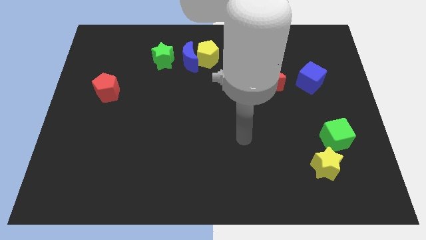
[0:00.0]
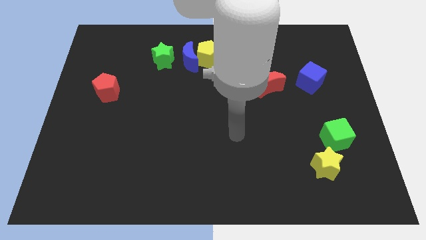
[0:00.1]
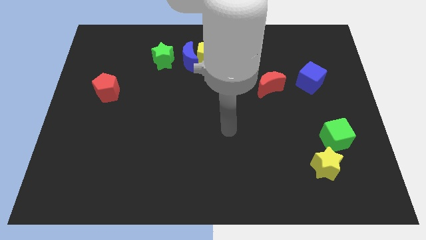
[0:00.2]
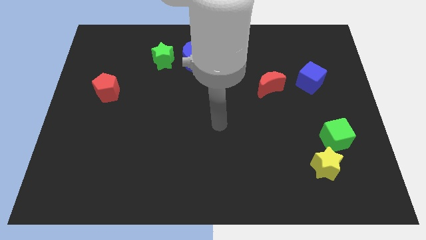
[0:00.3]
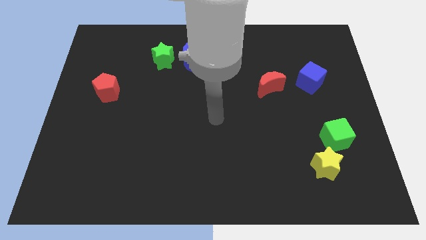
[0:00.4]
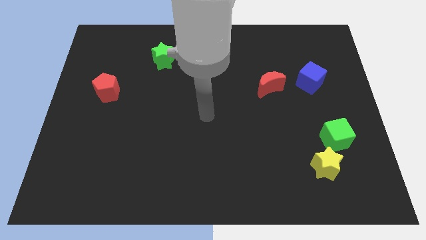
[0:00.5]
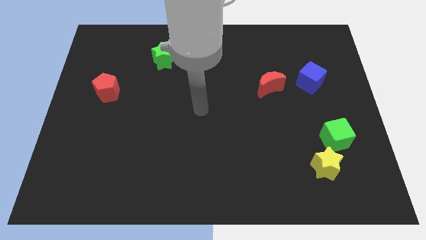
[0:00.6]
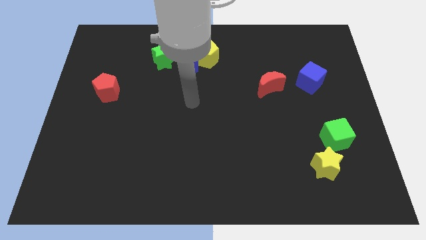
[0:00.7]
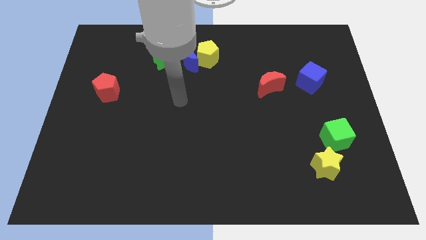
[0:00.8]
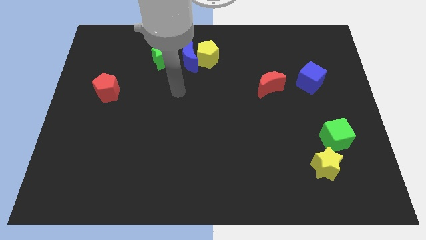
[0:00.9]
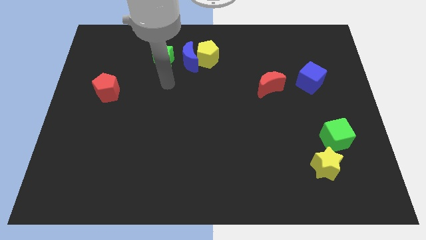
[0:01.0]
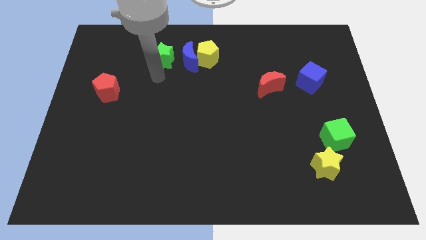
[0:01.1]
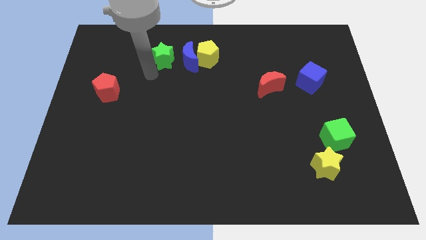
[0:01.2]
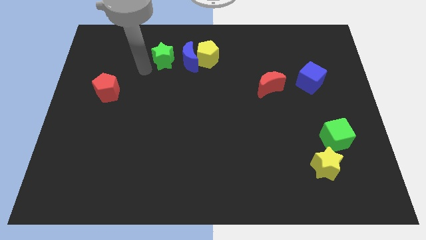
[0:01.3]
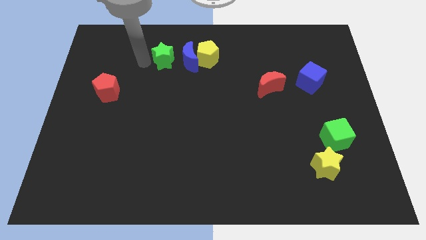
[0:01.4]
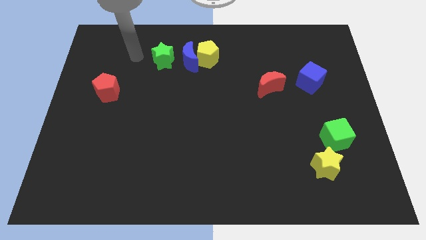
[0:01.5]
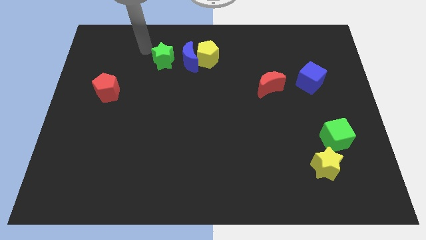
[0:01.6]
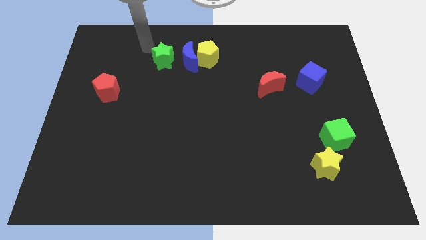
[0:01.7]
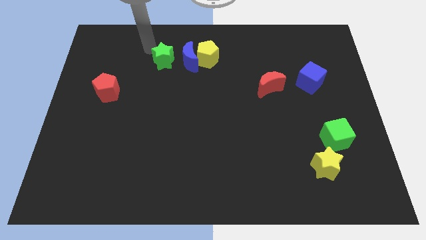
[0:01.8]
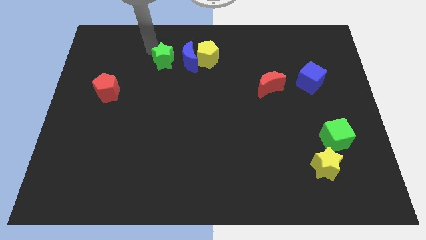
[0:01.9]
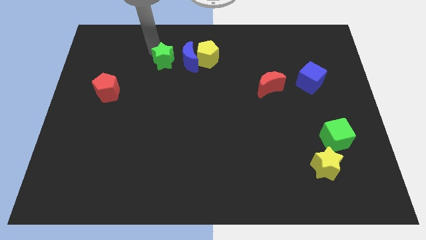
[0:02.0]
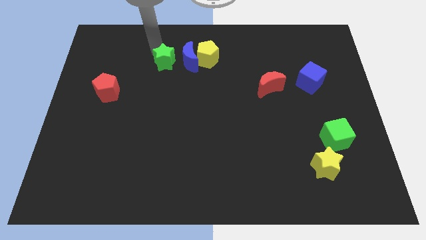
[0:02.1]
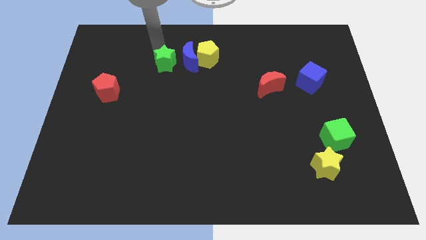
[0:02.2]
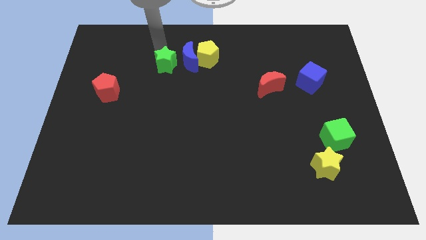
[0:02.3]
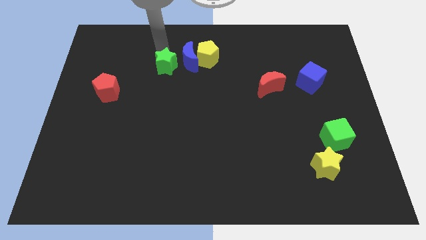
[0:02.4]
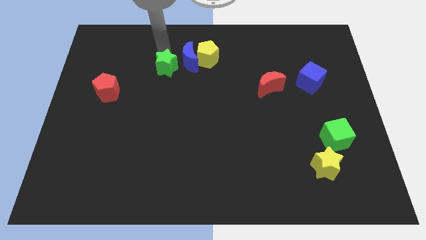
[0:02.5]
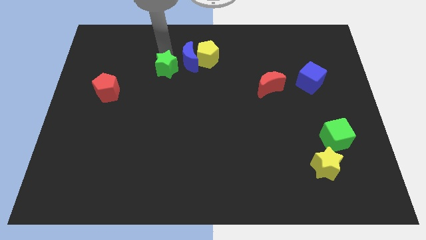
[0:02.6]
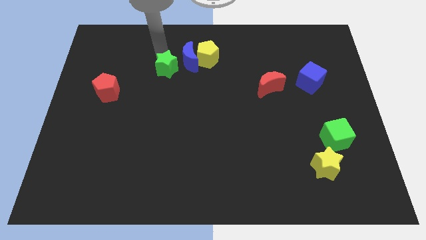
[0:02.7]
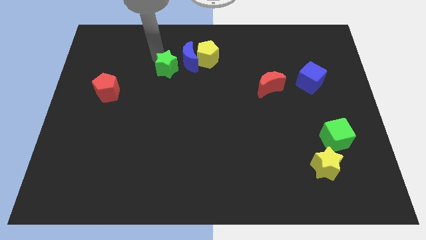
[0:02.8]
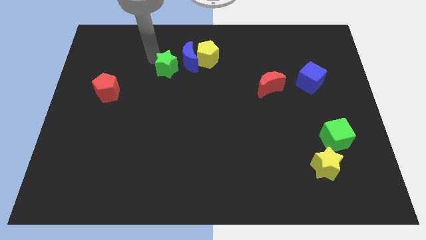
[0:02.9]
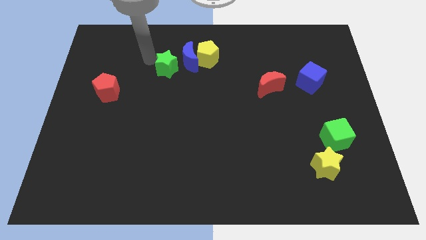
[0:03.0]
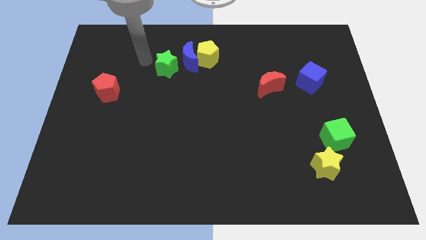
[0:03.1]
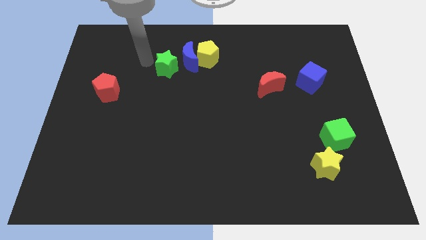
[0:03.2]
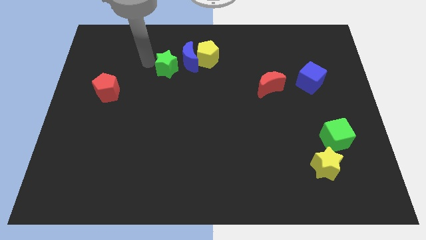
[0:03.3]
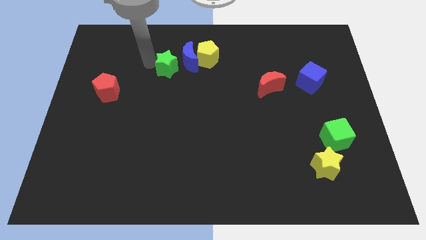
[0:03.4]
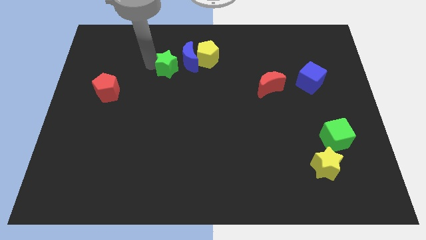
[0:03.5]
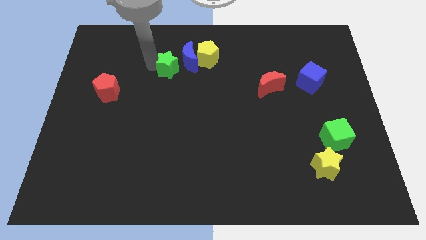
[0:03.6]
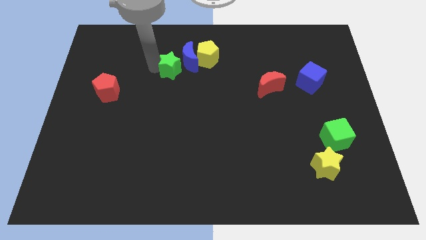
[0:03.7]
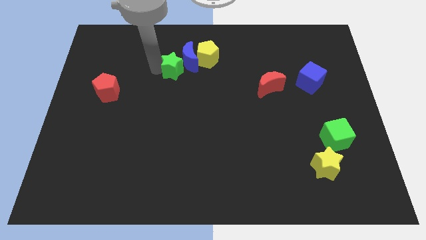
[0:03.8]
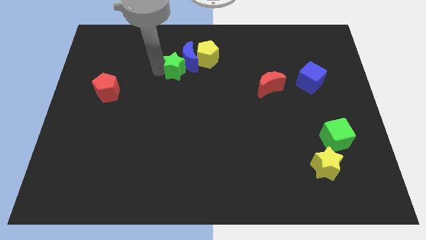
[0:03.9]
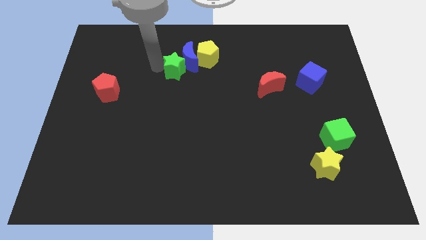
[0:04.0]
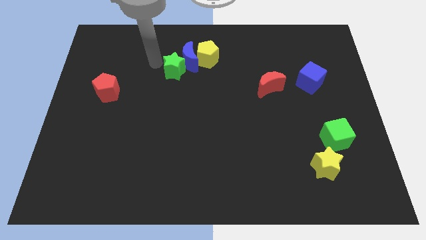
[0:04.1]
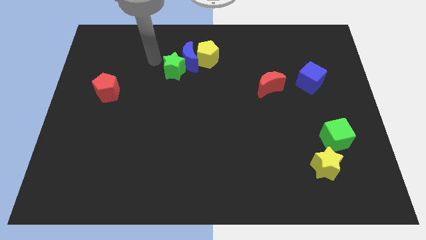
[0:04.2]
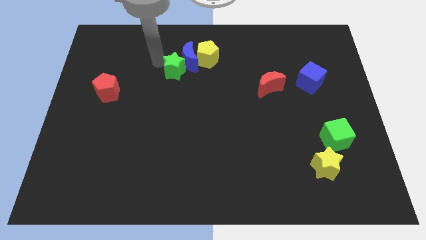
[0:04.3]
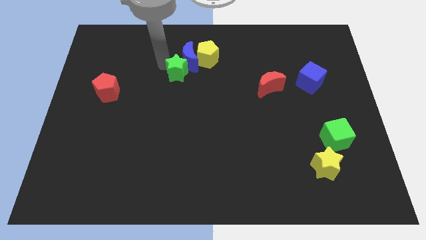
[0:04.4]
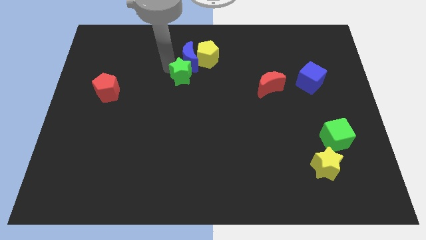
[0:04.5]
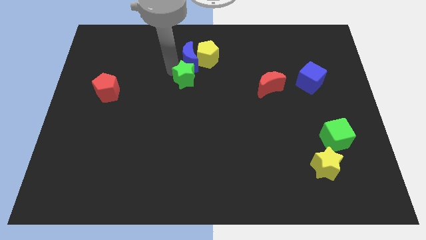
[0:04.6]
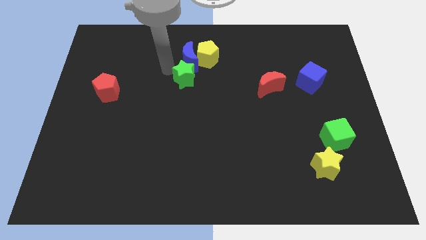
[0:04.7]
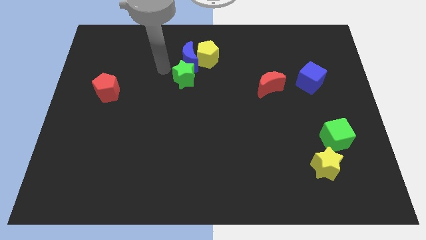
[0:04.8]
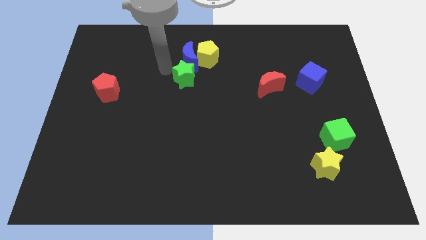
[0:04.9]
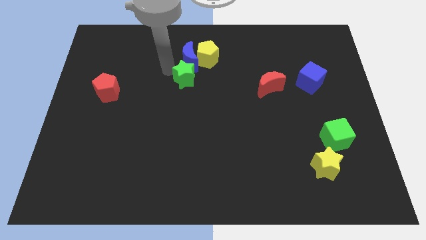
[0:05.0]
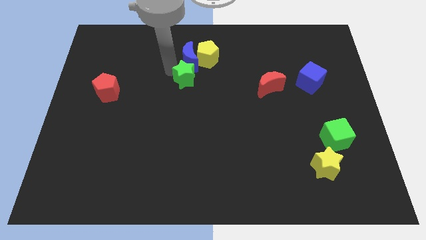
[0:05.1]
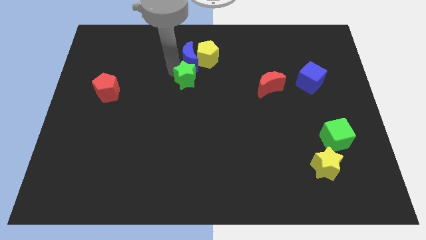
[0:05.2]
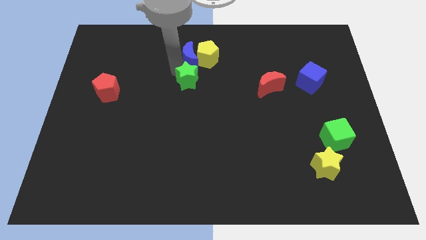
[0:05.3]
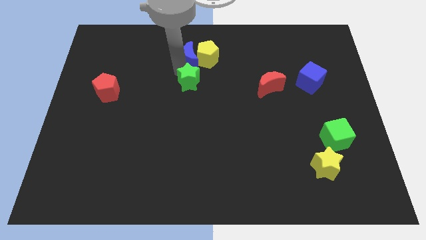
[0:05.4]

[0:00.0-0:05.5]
push the green star below the yellow pentagon

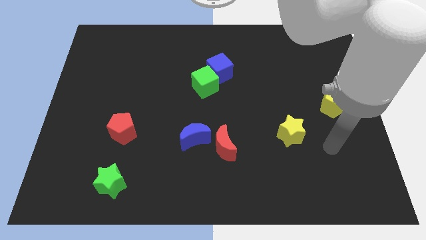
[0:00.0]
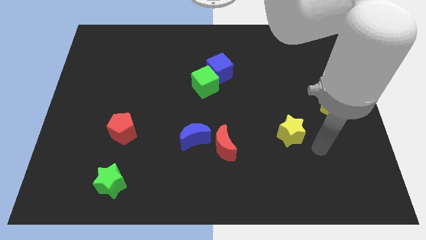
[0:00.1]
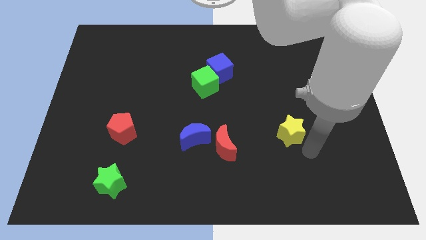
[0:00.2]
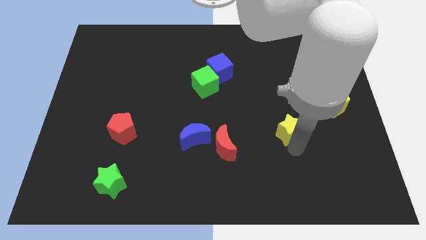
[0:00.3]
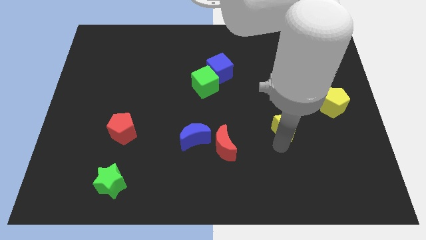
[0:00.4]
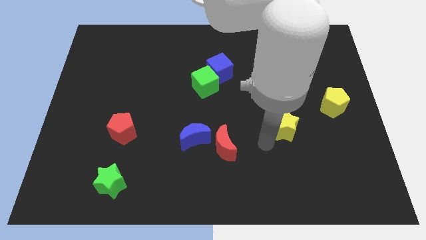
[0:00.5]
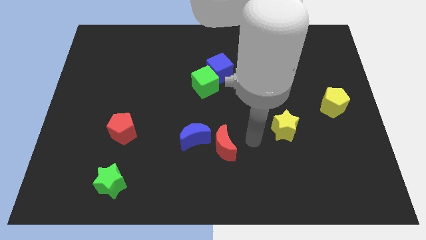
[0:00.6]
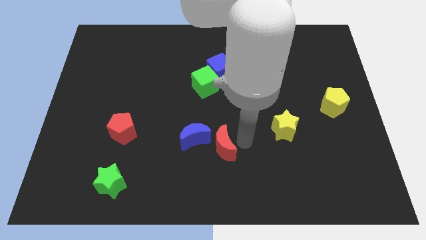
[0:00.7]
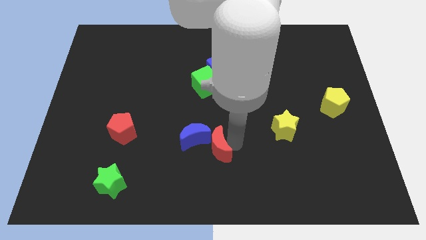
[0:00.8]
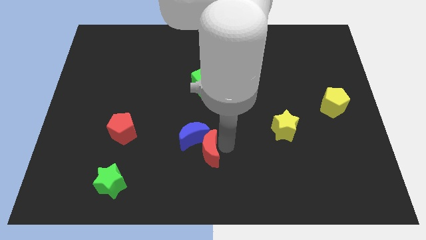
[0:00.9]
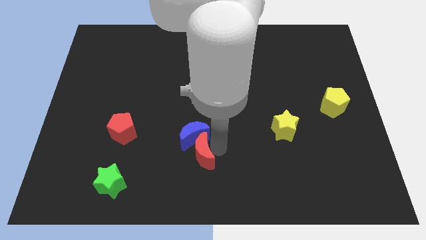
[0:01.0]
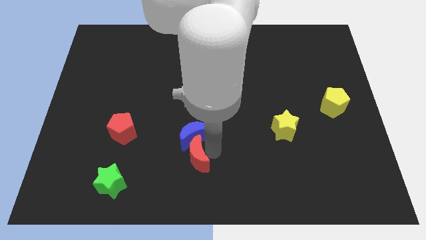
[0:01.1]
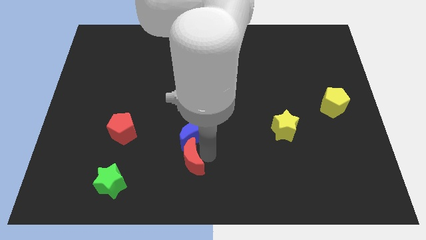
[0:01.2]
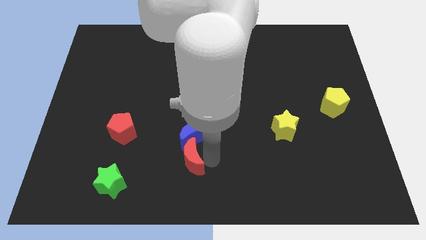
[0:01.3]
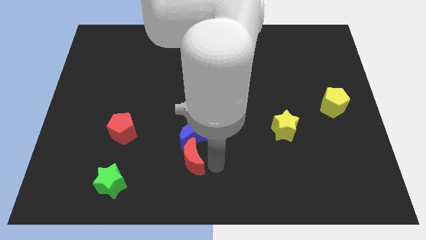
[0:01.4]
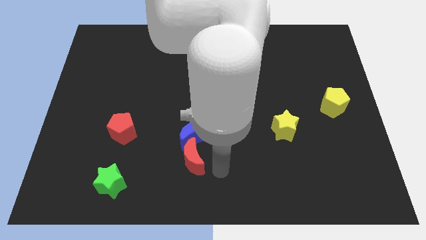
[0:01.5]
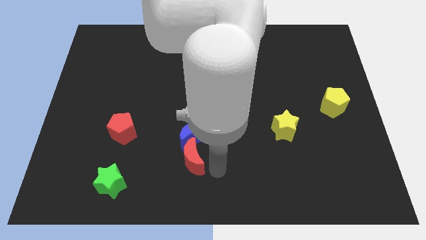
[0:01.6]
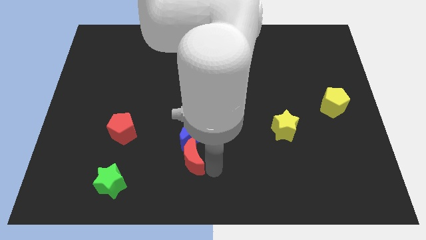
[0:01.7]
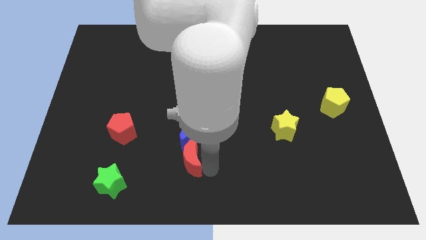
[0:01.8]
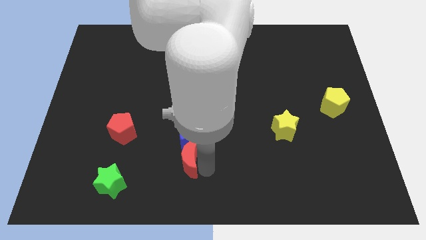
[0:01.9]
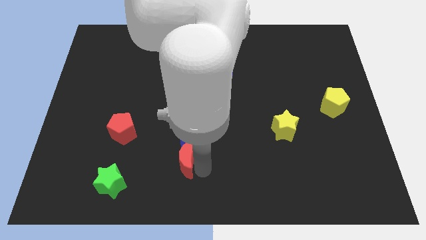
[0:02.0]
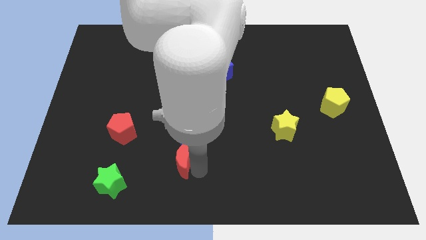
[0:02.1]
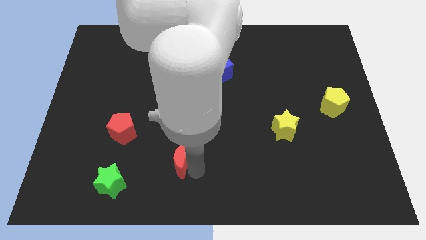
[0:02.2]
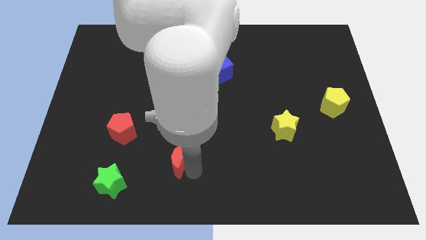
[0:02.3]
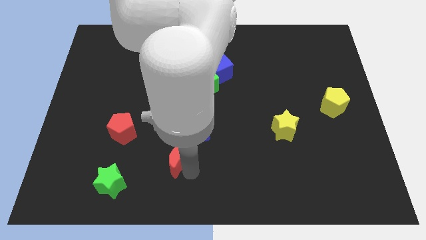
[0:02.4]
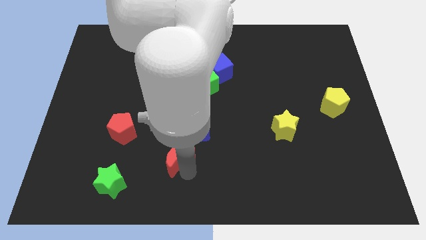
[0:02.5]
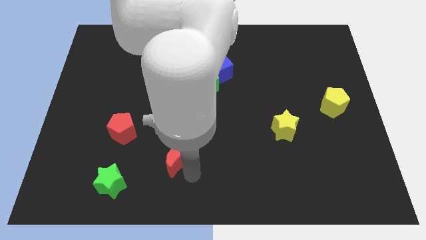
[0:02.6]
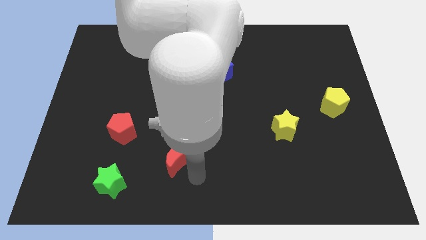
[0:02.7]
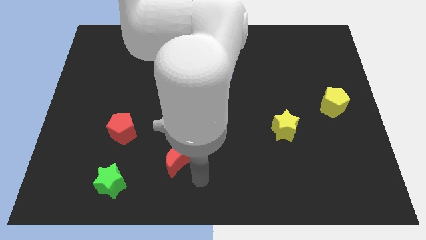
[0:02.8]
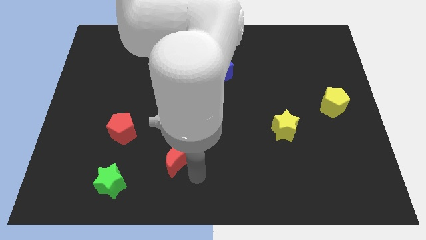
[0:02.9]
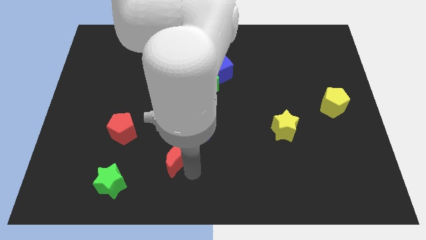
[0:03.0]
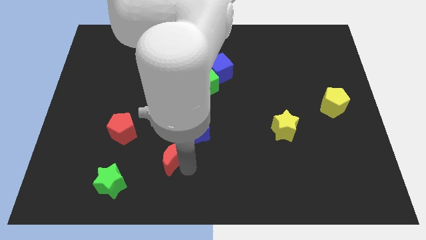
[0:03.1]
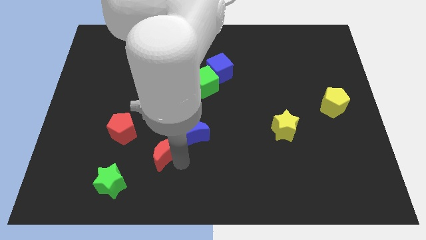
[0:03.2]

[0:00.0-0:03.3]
put the red moon to the left side of the blue moon
